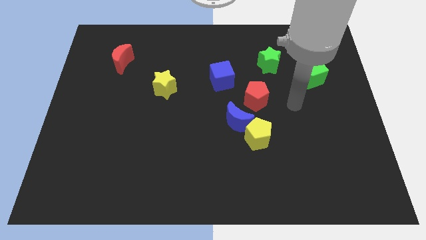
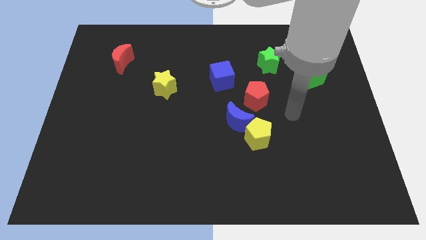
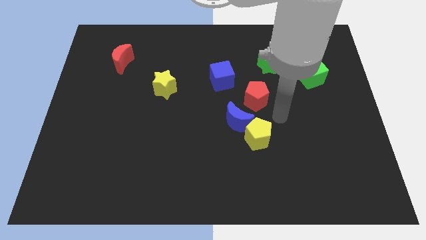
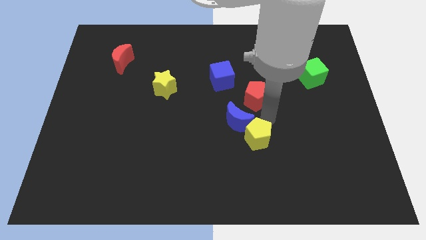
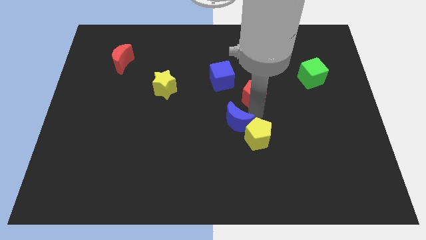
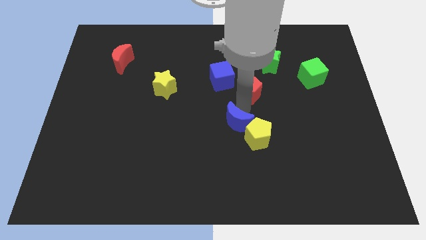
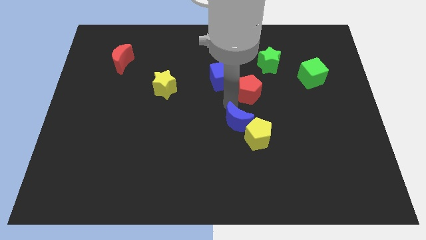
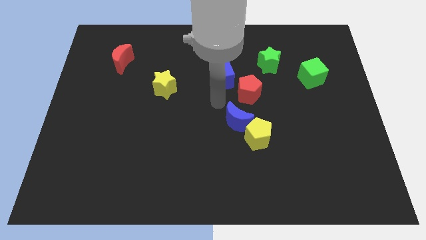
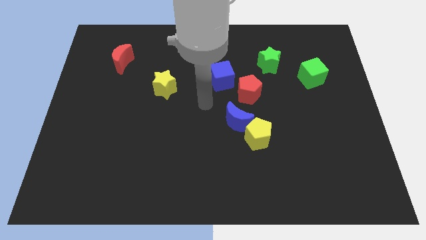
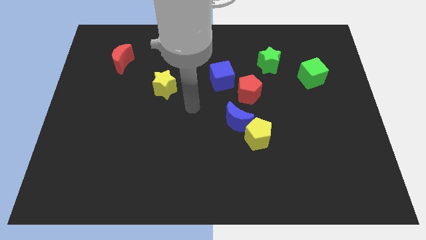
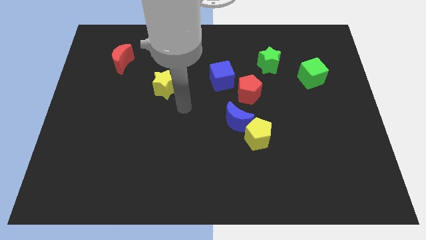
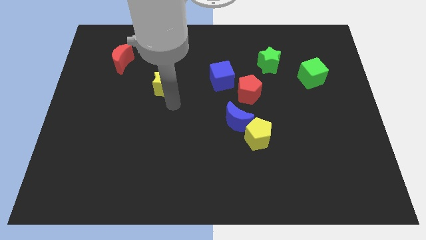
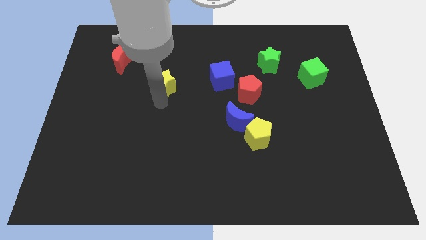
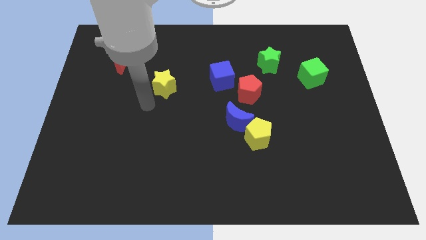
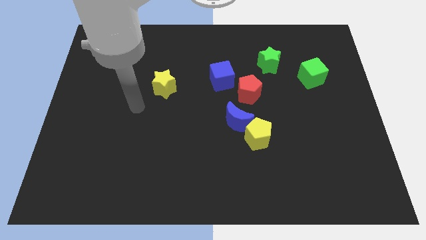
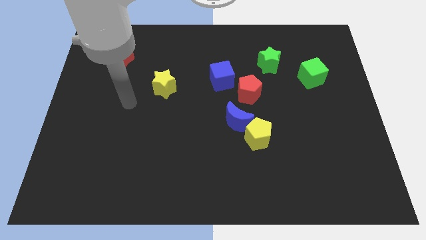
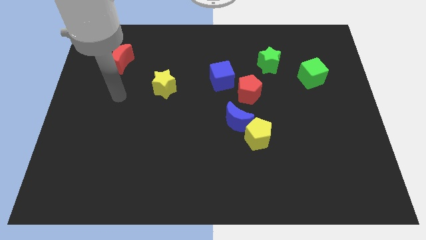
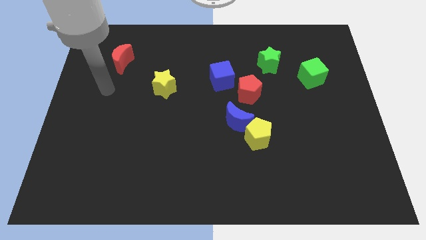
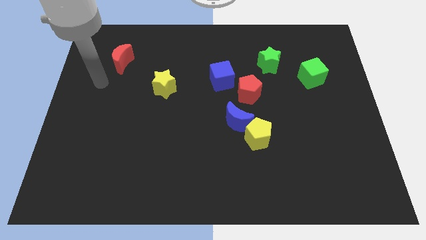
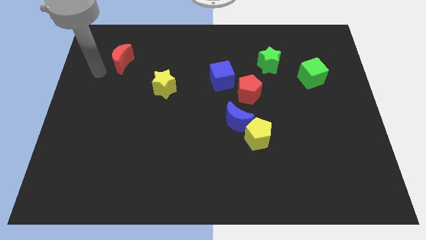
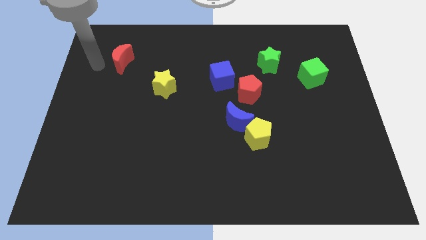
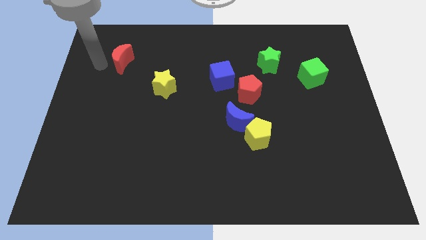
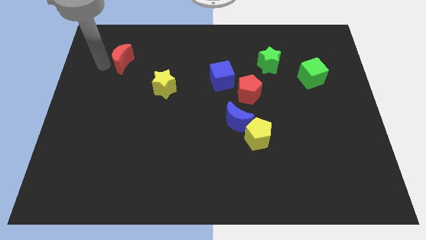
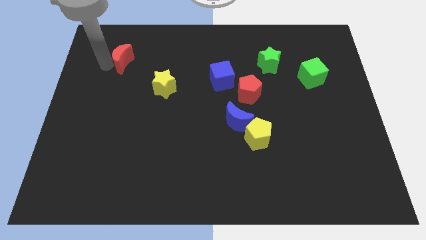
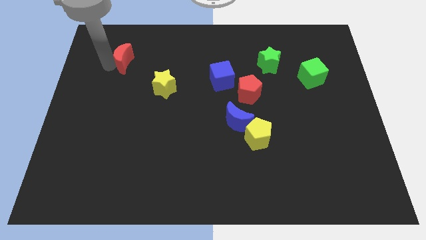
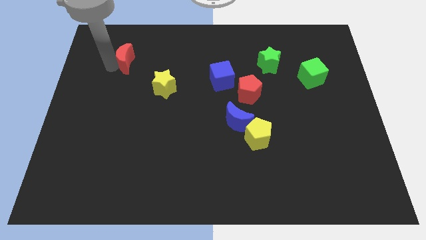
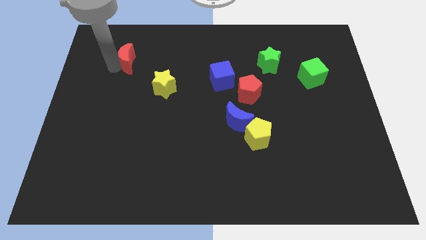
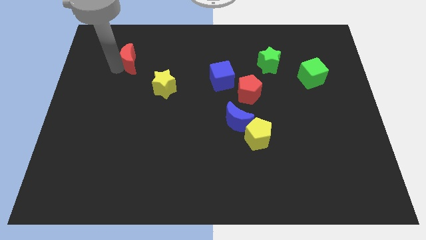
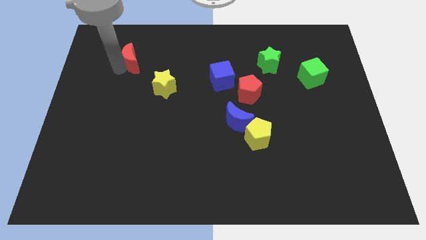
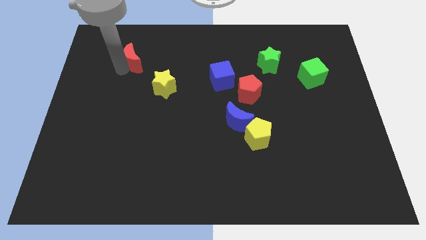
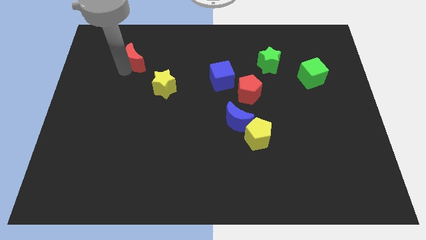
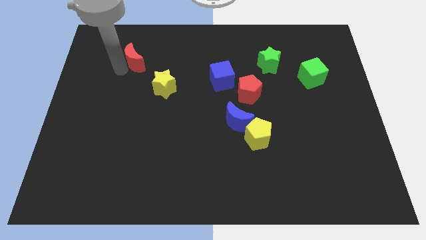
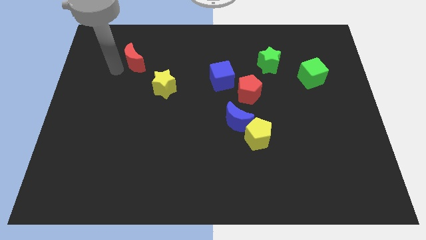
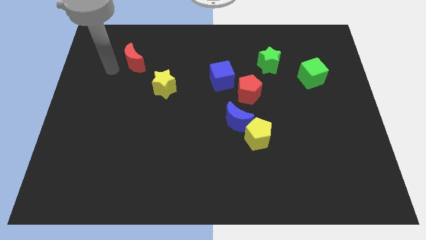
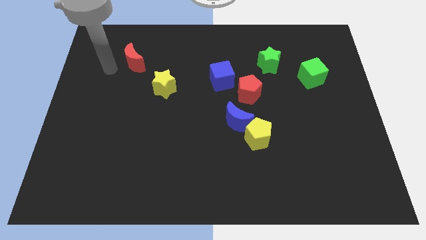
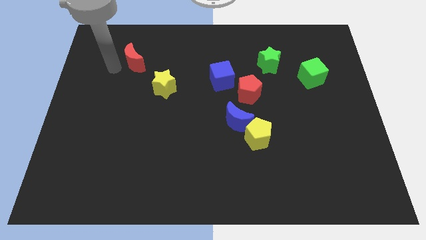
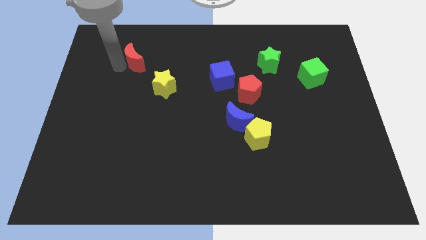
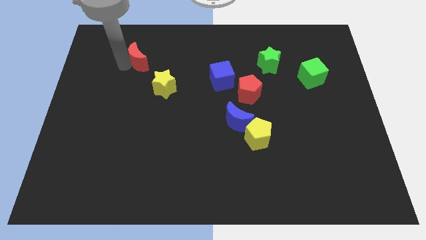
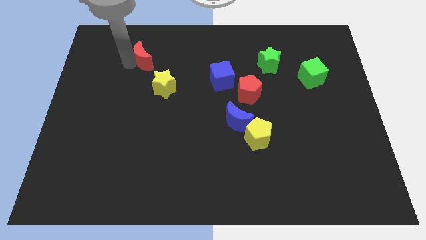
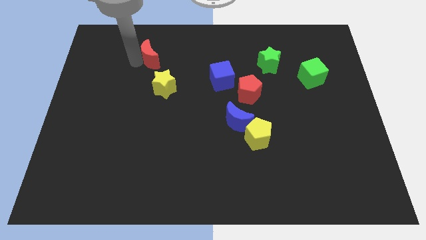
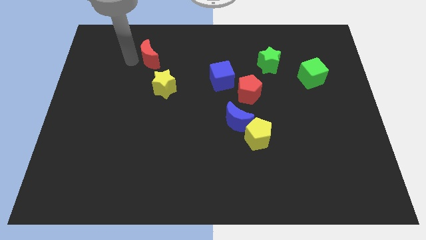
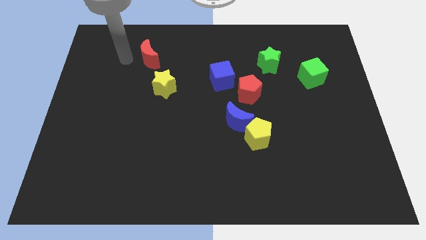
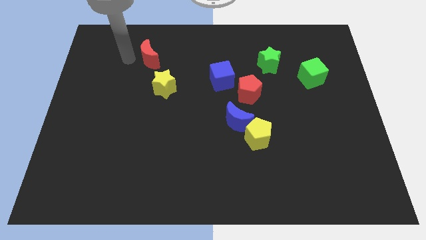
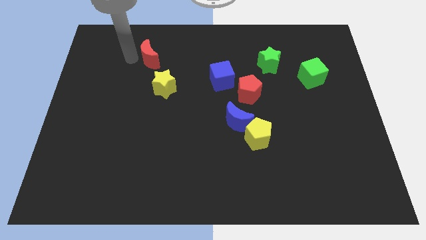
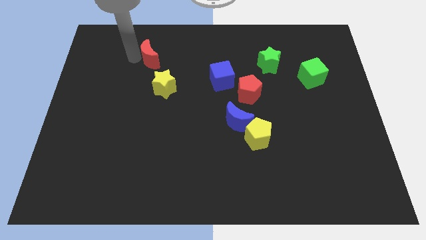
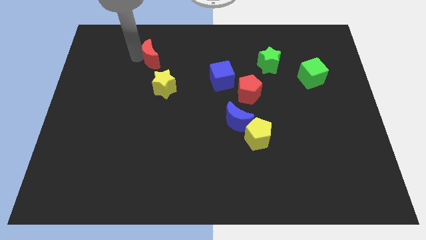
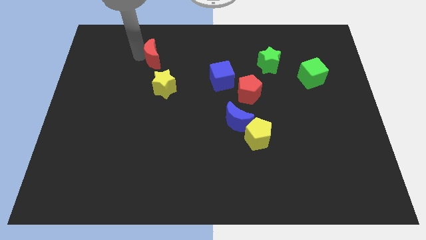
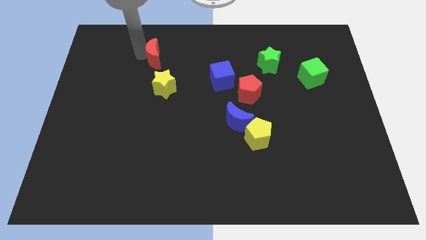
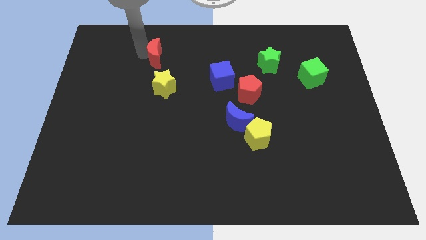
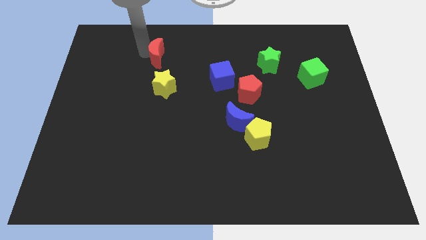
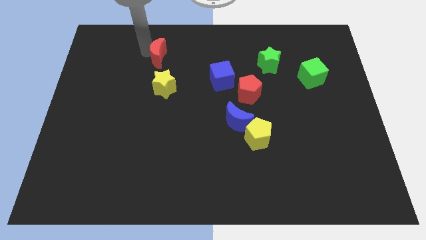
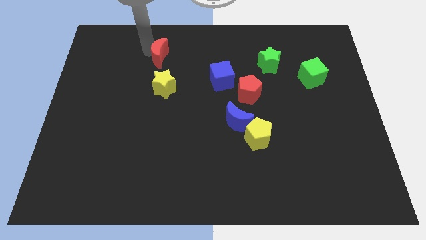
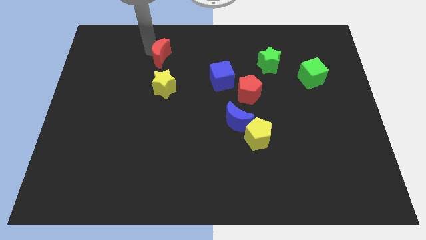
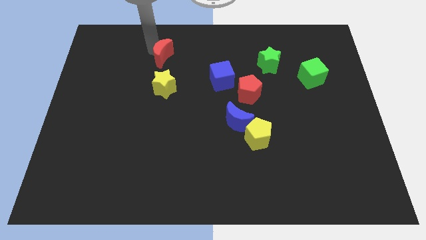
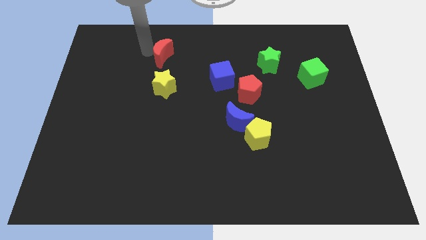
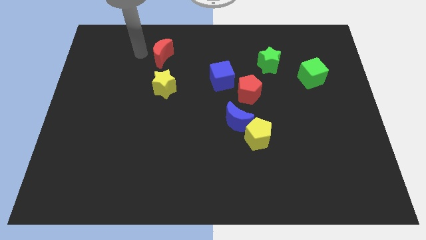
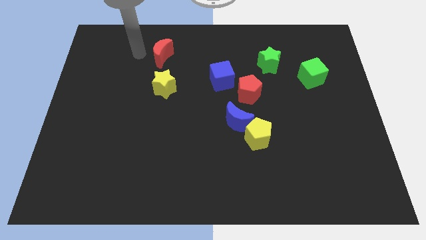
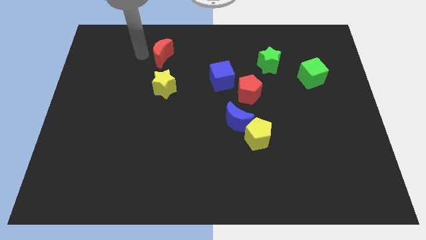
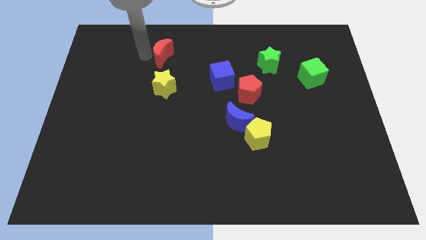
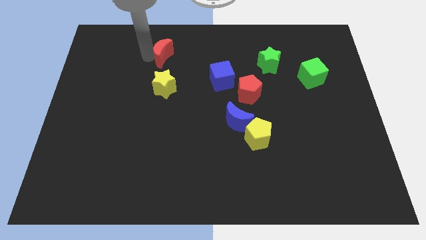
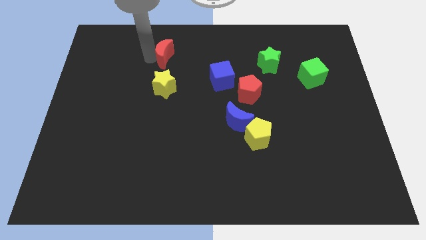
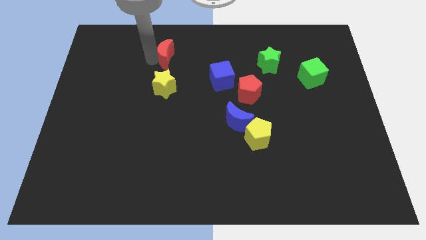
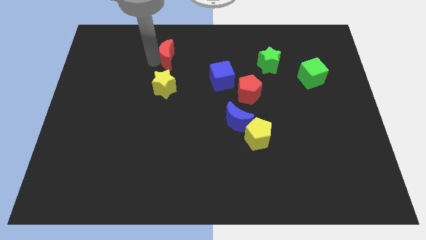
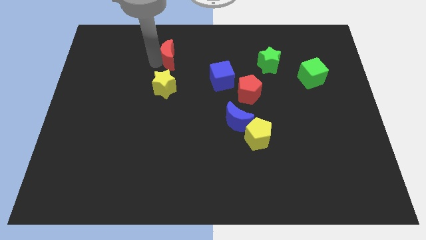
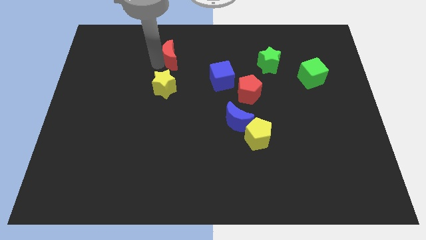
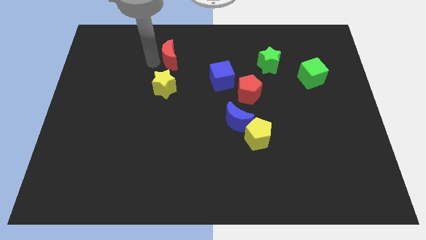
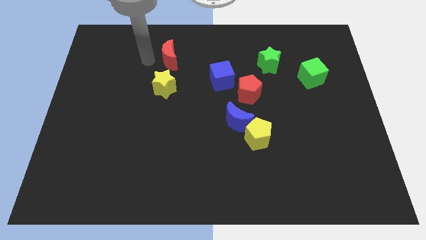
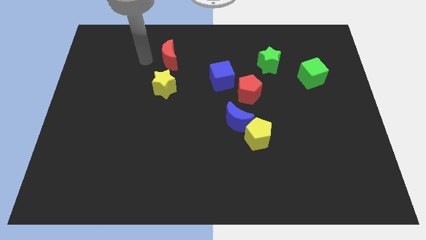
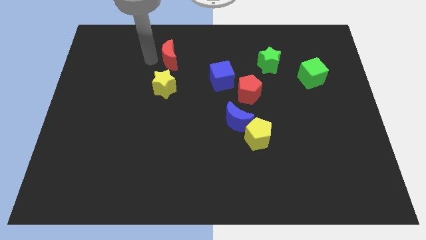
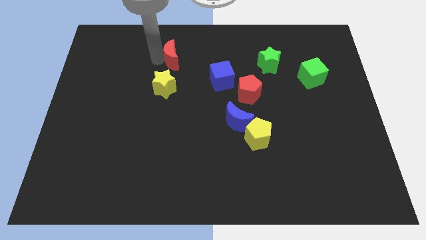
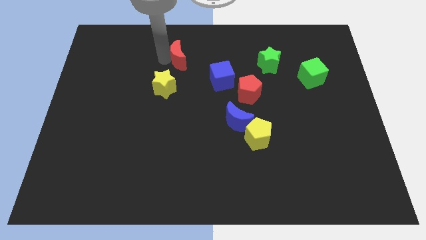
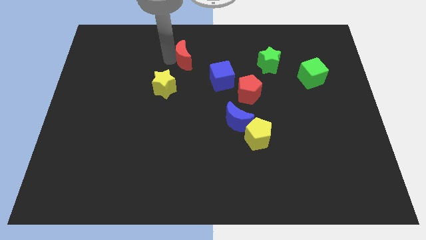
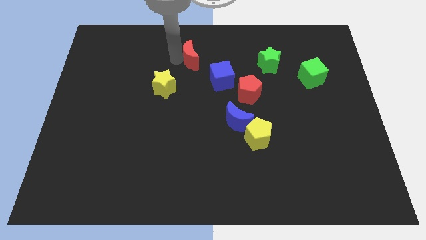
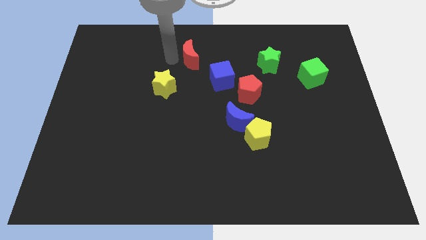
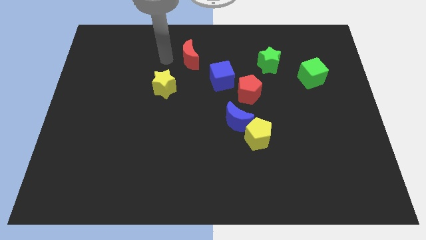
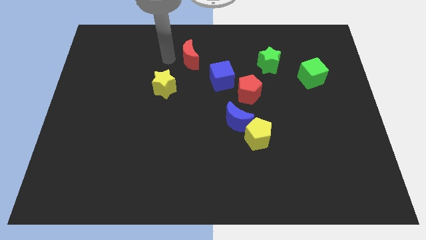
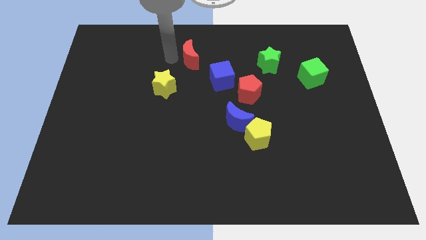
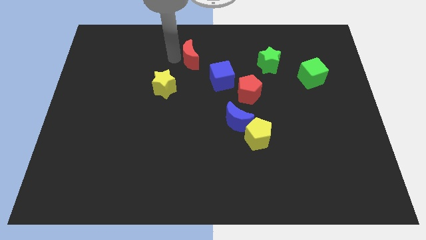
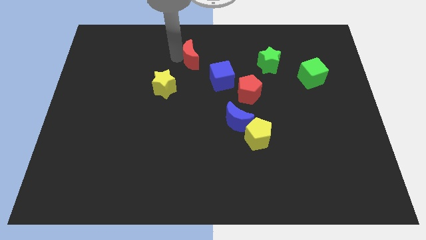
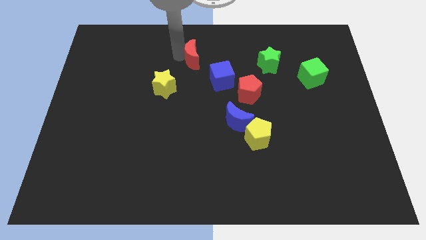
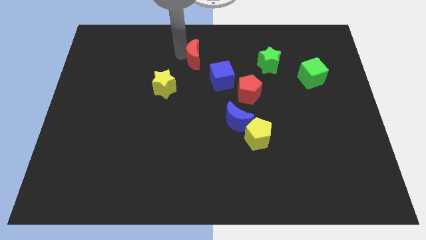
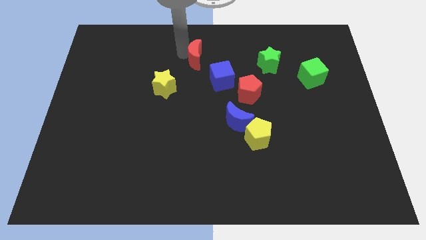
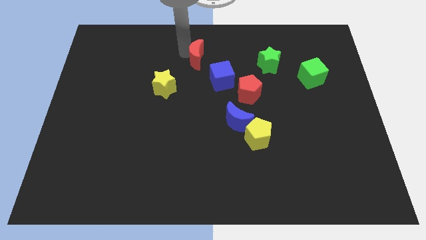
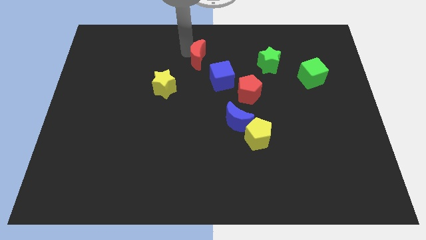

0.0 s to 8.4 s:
move the red moon right

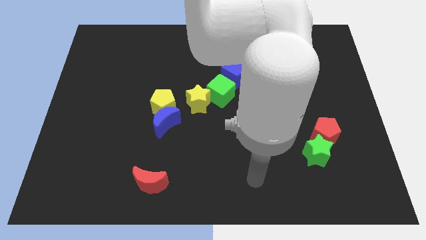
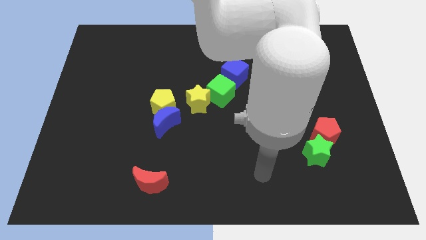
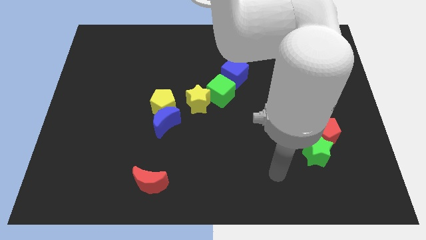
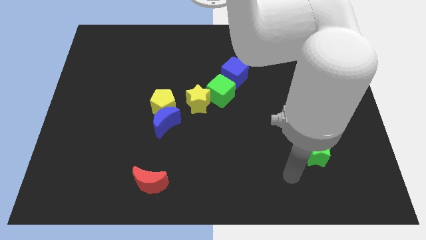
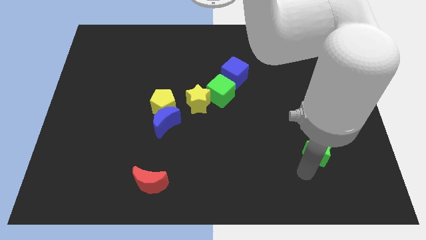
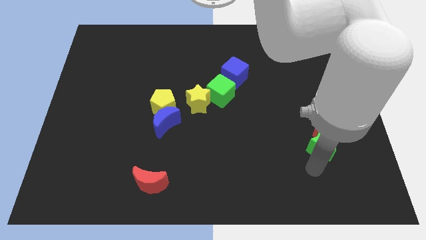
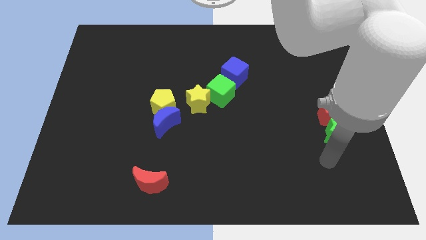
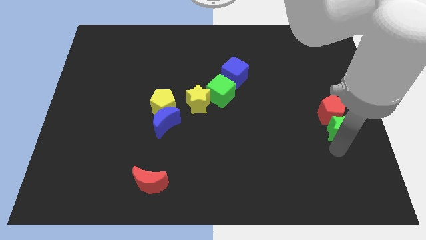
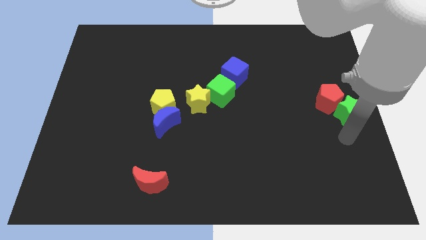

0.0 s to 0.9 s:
move the red pentagon upwards slightly
